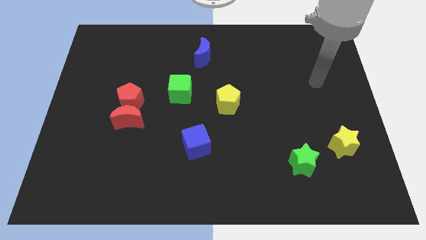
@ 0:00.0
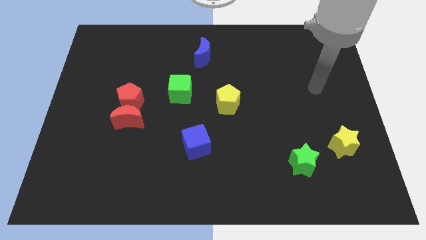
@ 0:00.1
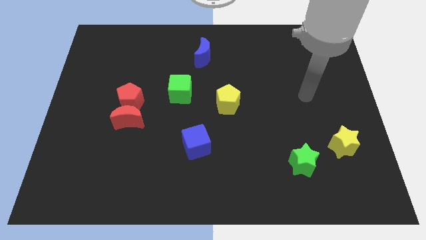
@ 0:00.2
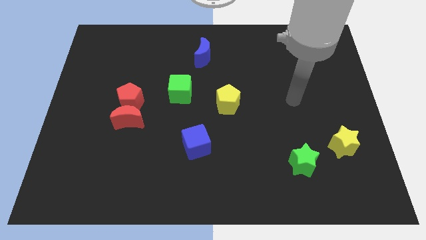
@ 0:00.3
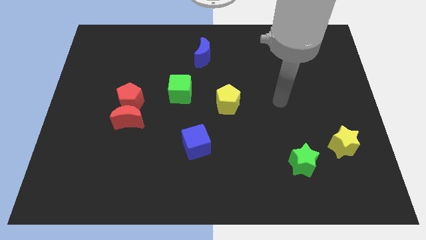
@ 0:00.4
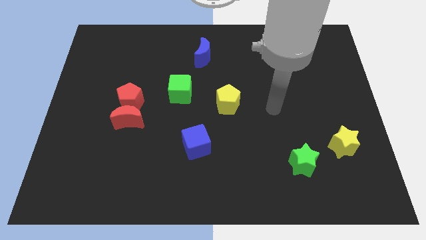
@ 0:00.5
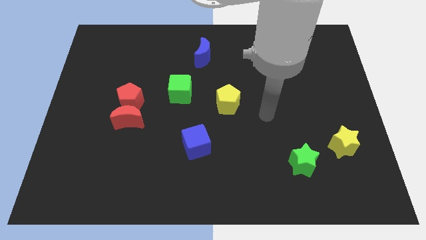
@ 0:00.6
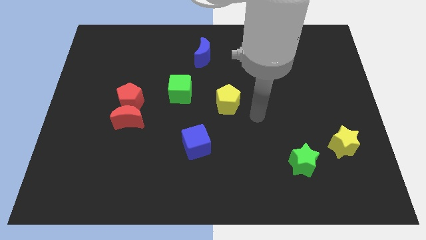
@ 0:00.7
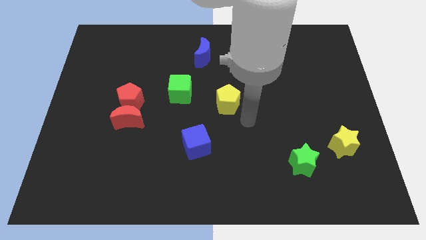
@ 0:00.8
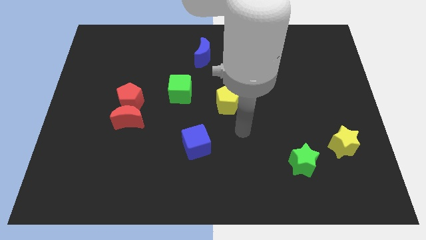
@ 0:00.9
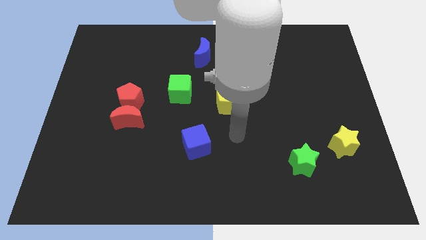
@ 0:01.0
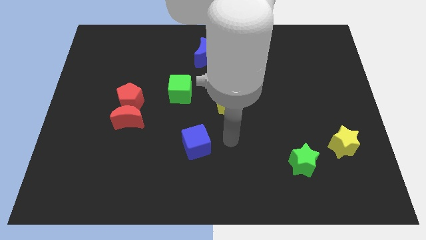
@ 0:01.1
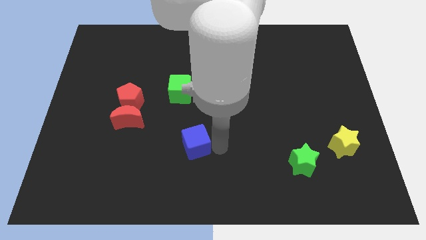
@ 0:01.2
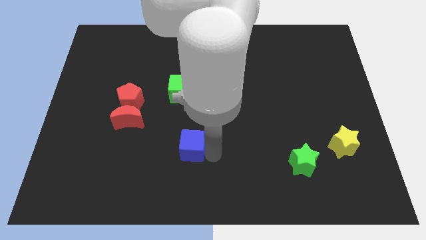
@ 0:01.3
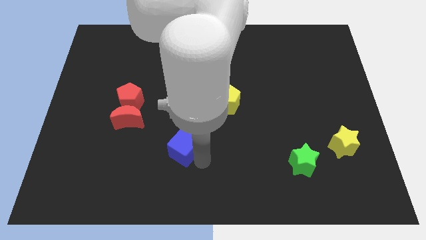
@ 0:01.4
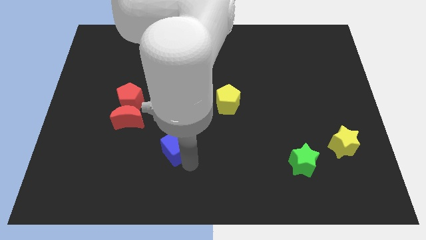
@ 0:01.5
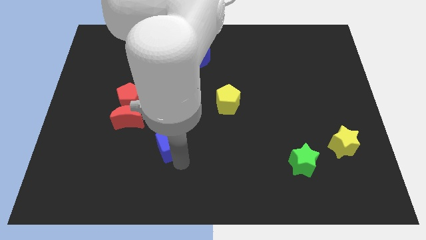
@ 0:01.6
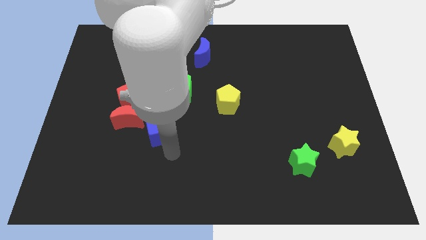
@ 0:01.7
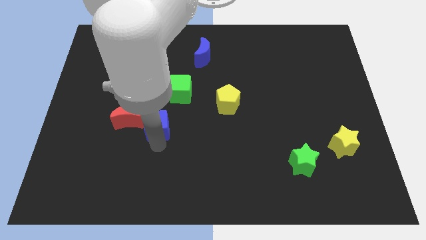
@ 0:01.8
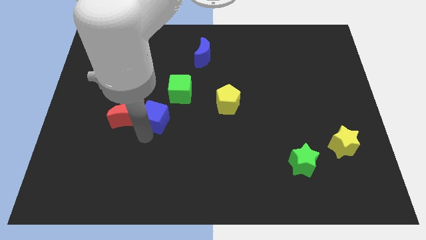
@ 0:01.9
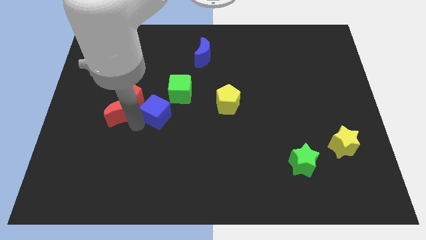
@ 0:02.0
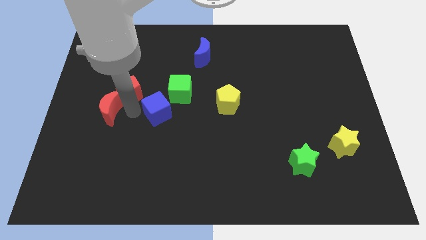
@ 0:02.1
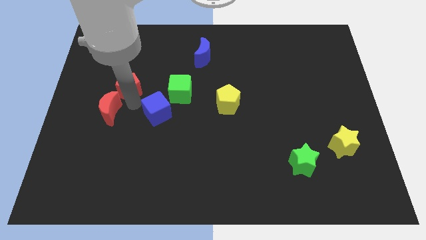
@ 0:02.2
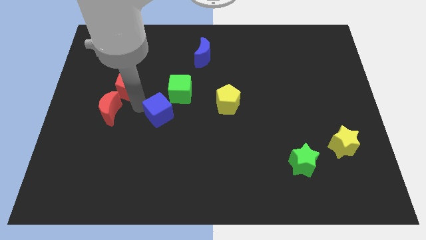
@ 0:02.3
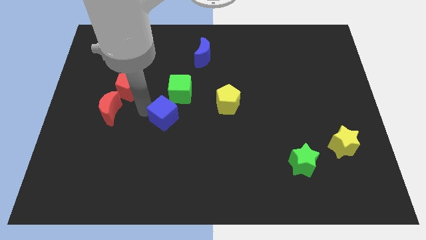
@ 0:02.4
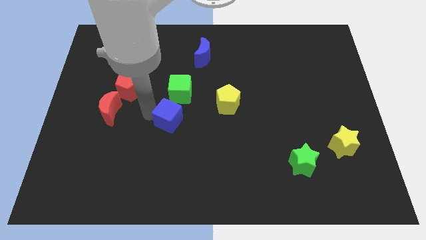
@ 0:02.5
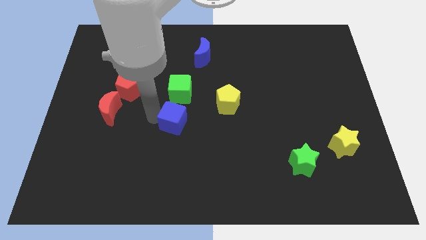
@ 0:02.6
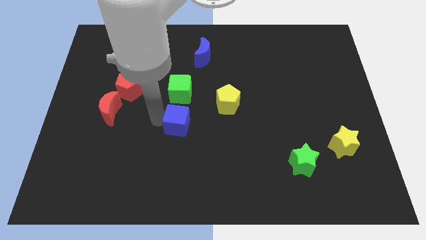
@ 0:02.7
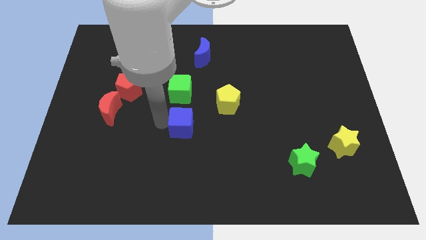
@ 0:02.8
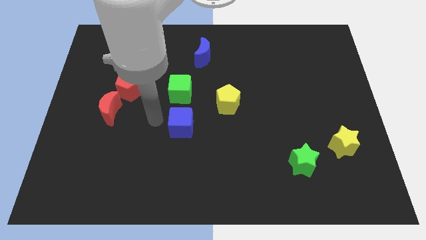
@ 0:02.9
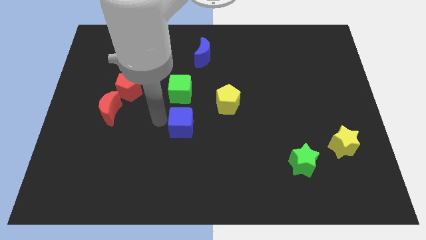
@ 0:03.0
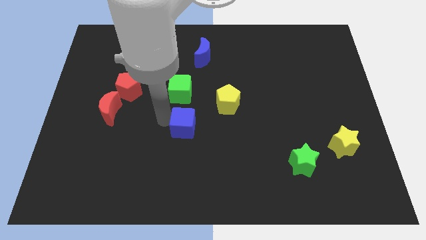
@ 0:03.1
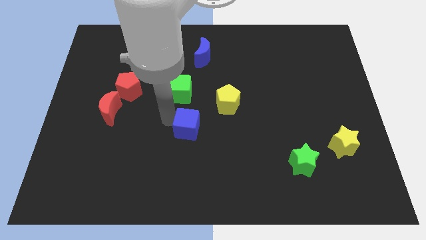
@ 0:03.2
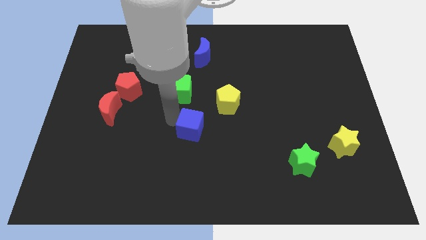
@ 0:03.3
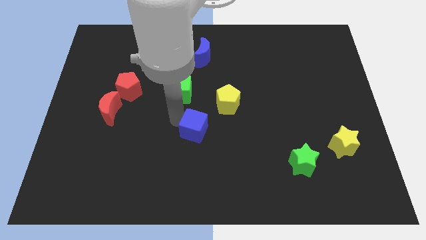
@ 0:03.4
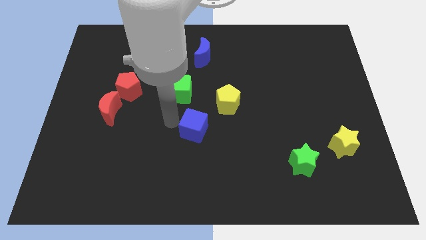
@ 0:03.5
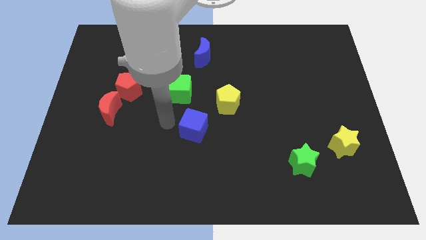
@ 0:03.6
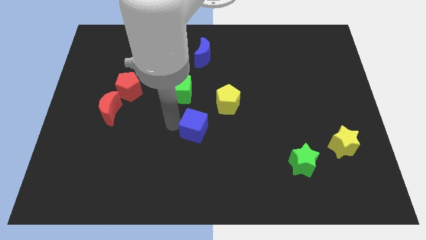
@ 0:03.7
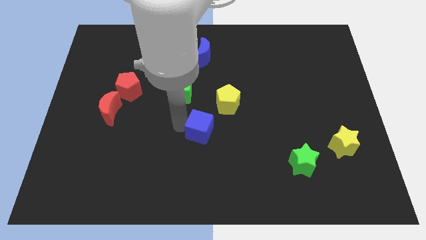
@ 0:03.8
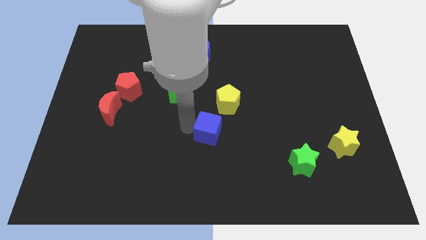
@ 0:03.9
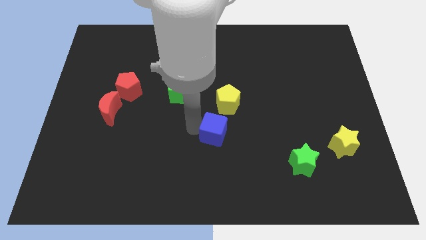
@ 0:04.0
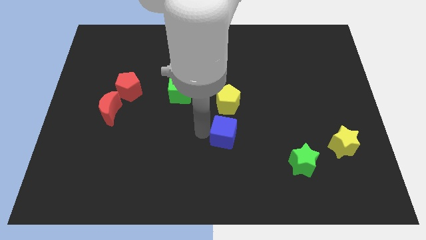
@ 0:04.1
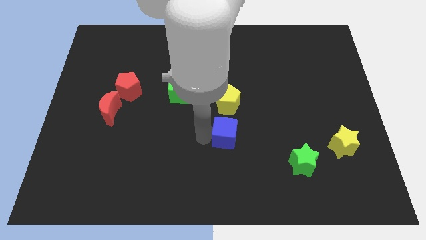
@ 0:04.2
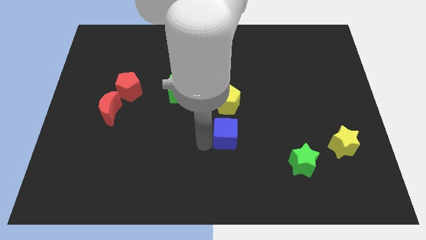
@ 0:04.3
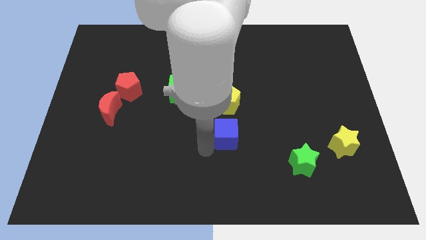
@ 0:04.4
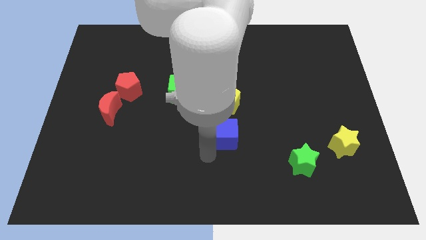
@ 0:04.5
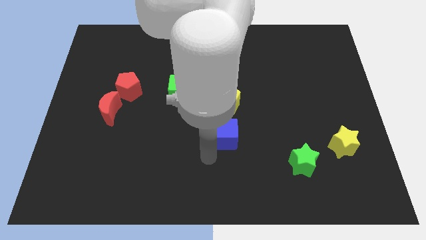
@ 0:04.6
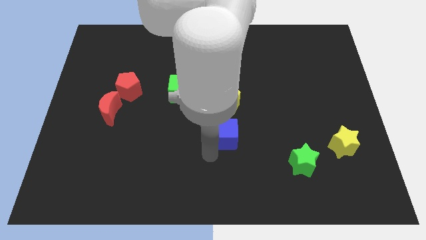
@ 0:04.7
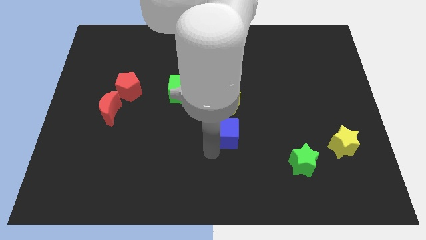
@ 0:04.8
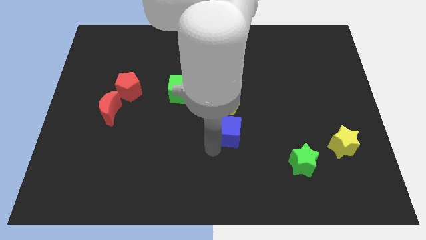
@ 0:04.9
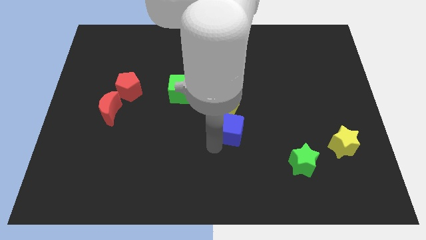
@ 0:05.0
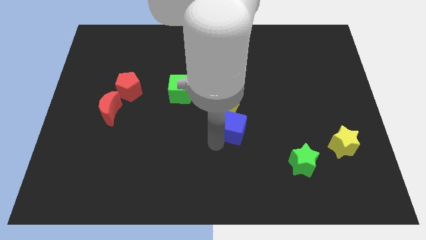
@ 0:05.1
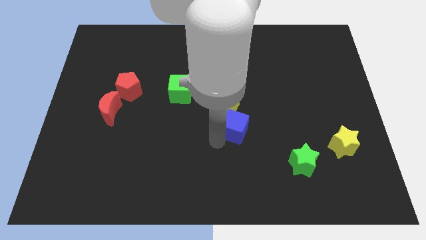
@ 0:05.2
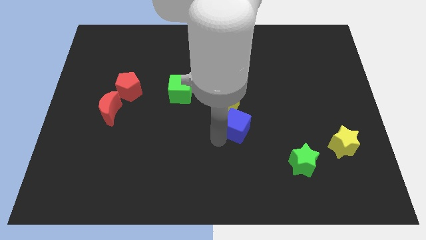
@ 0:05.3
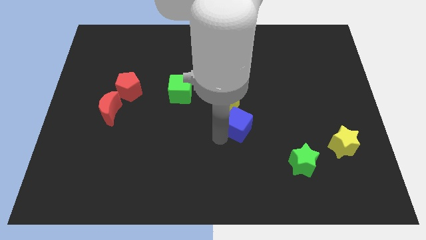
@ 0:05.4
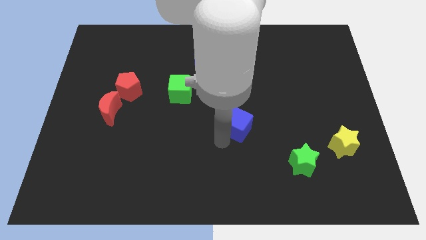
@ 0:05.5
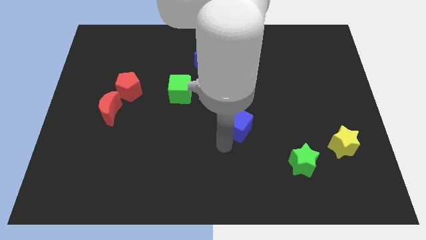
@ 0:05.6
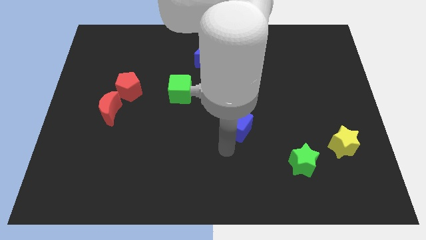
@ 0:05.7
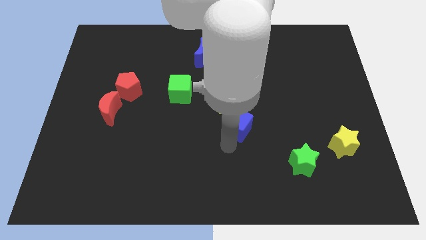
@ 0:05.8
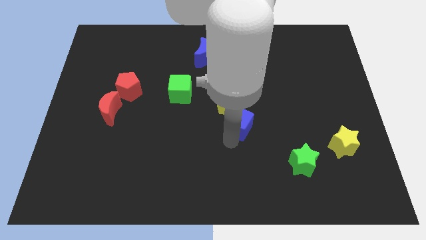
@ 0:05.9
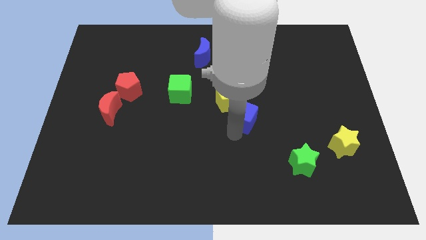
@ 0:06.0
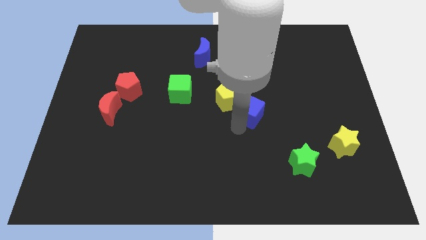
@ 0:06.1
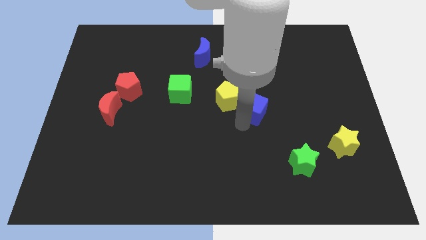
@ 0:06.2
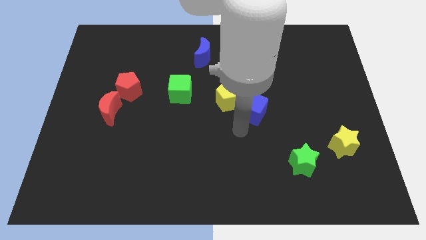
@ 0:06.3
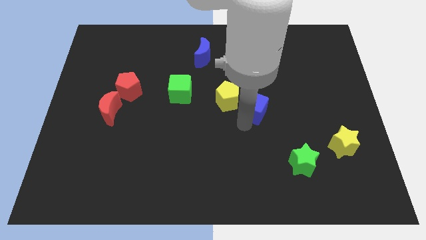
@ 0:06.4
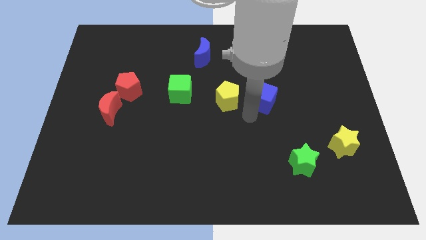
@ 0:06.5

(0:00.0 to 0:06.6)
move the blue cube upwards and right diagonally

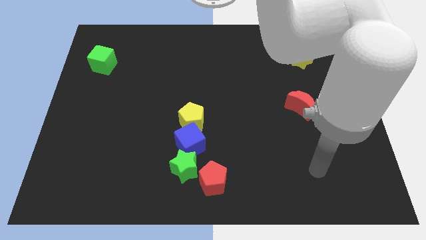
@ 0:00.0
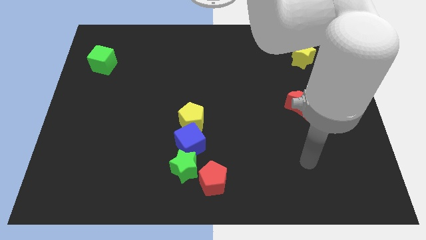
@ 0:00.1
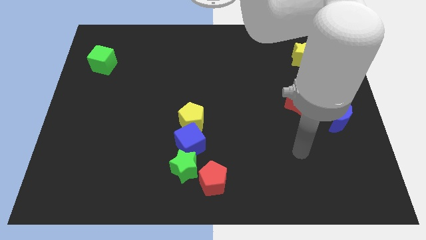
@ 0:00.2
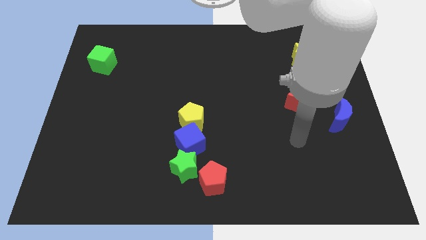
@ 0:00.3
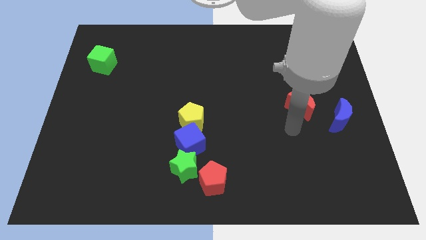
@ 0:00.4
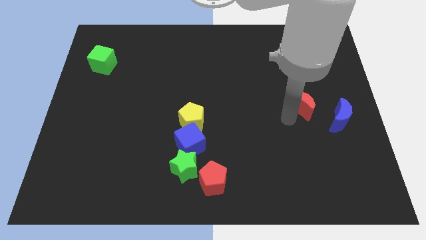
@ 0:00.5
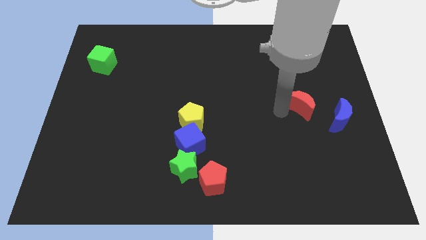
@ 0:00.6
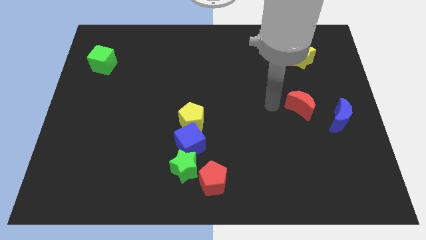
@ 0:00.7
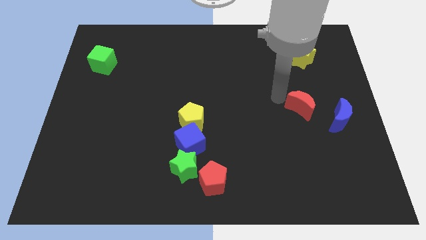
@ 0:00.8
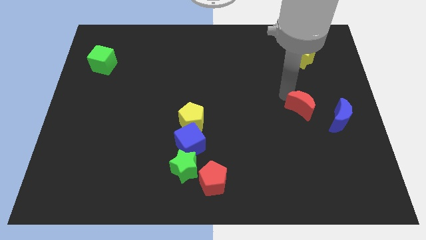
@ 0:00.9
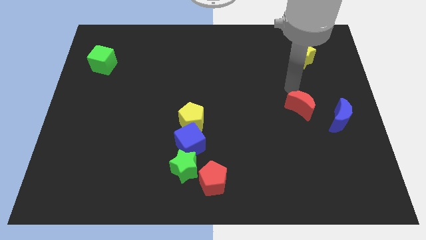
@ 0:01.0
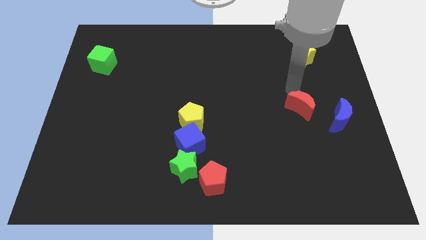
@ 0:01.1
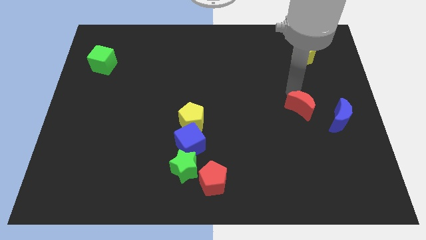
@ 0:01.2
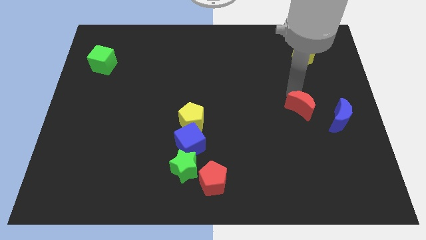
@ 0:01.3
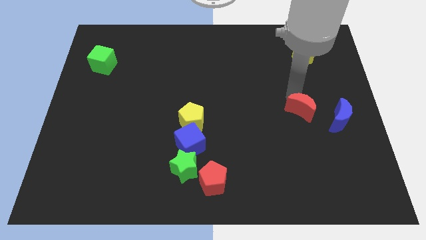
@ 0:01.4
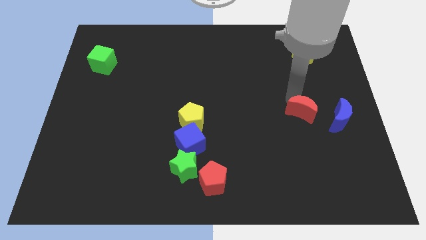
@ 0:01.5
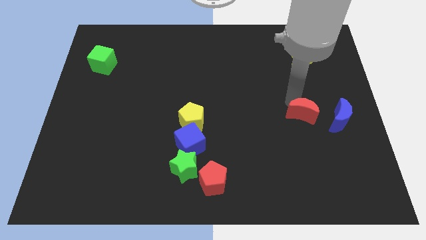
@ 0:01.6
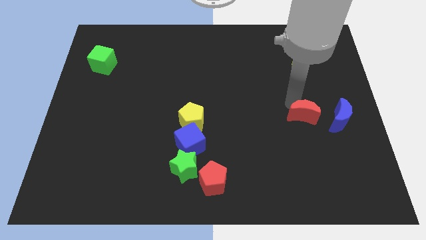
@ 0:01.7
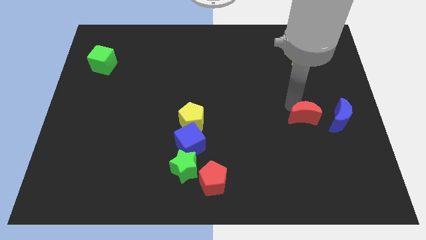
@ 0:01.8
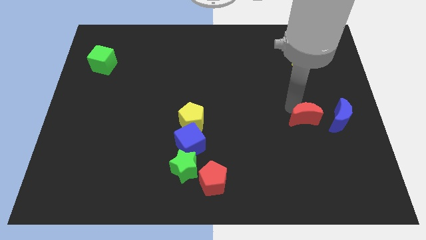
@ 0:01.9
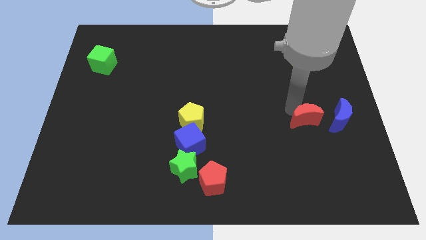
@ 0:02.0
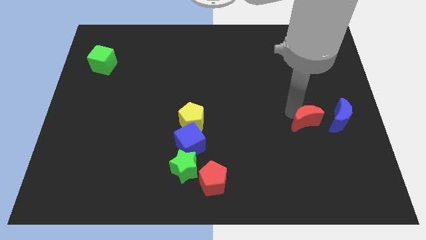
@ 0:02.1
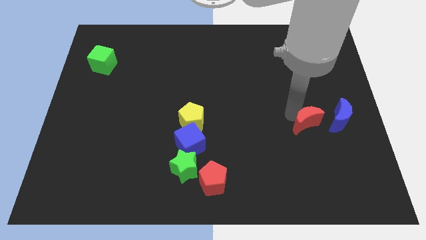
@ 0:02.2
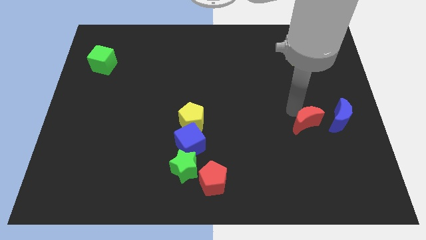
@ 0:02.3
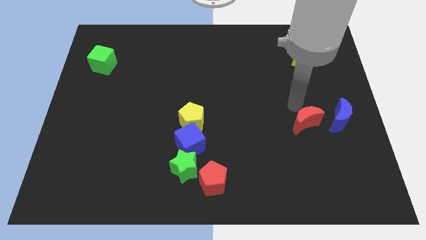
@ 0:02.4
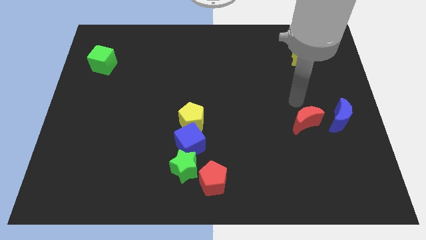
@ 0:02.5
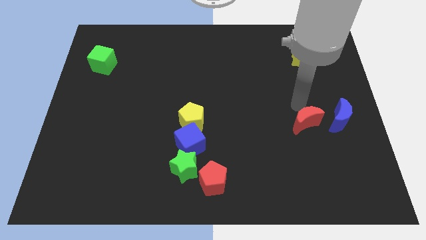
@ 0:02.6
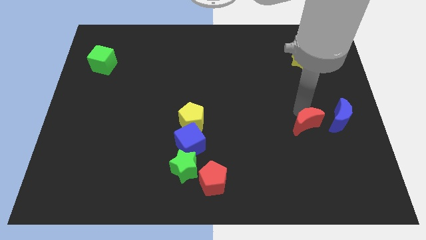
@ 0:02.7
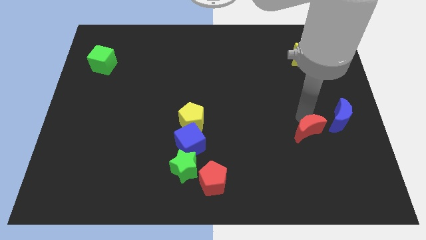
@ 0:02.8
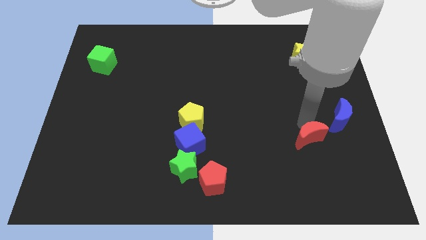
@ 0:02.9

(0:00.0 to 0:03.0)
slightly slide the red moon down
